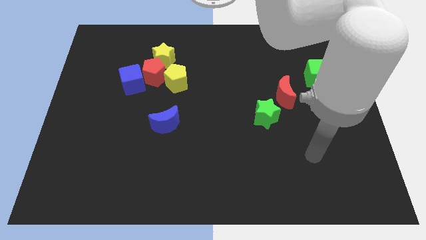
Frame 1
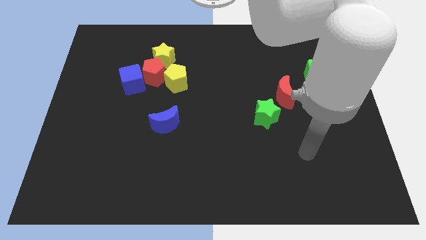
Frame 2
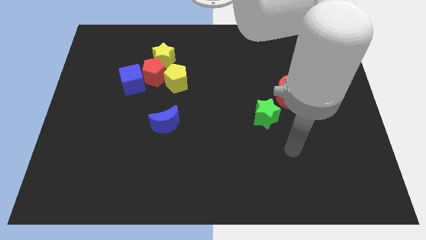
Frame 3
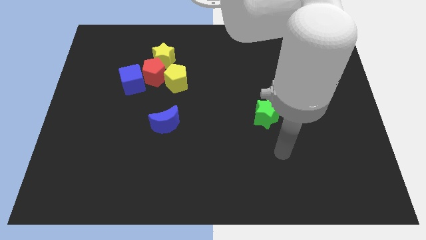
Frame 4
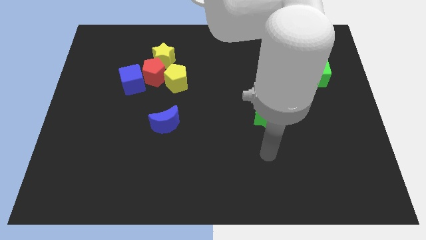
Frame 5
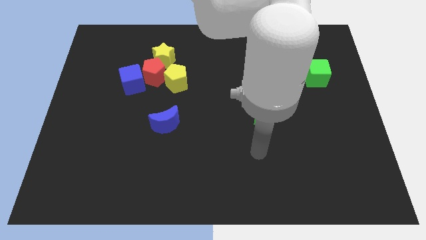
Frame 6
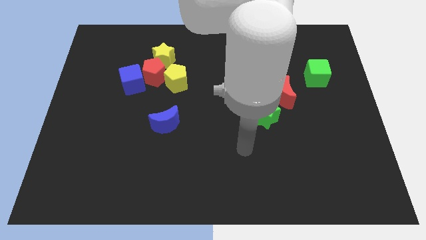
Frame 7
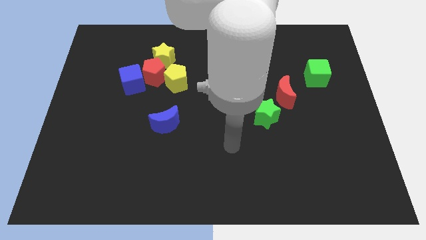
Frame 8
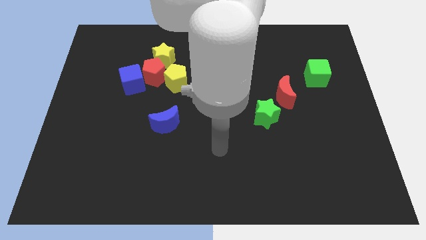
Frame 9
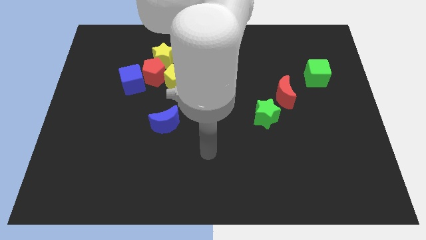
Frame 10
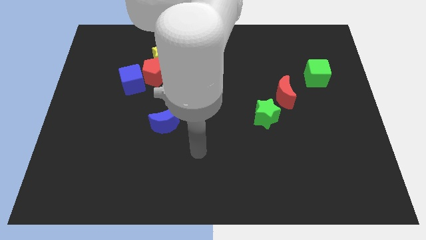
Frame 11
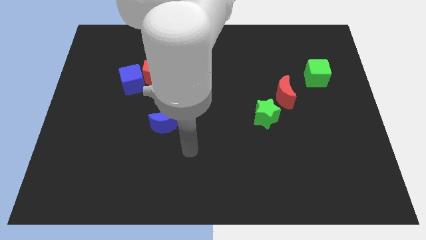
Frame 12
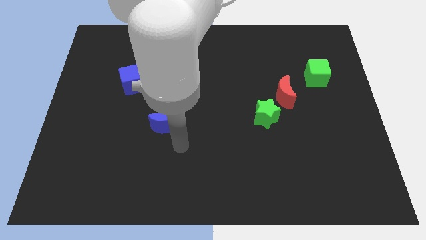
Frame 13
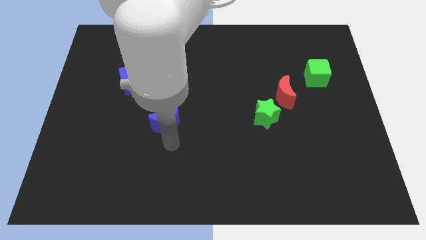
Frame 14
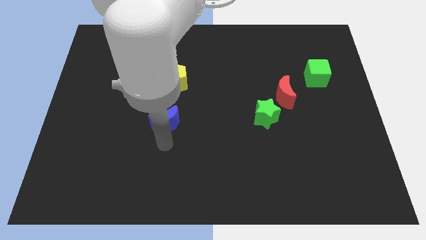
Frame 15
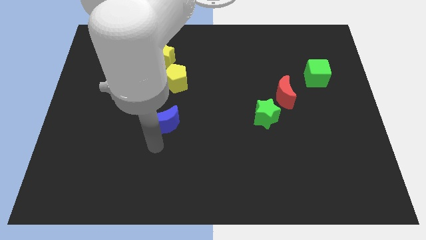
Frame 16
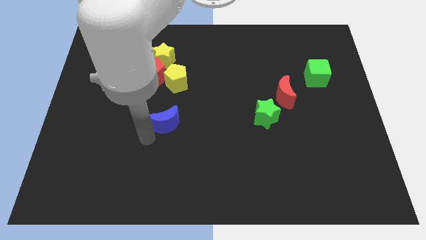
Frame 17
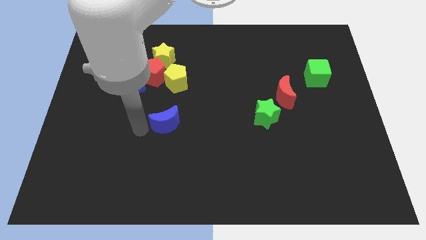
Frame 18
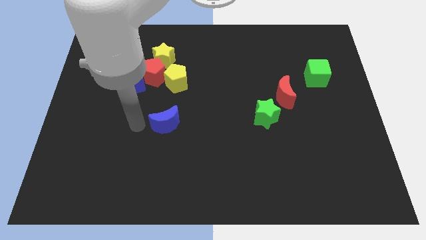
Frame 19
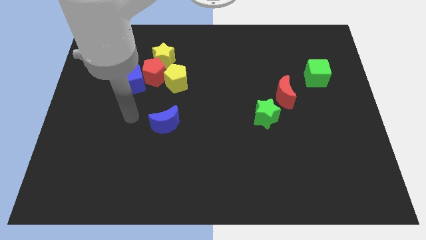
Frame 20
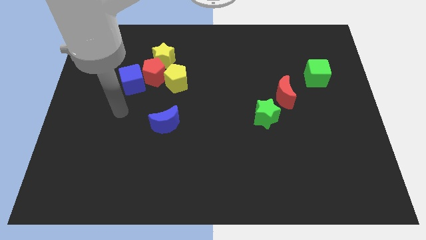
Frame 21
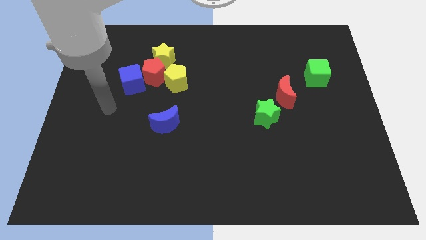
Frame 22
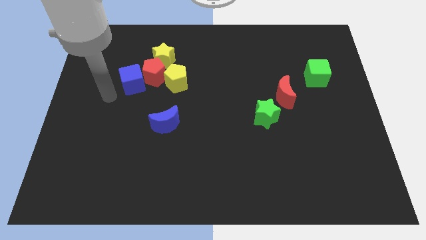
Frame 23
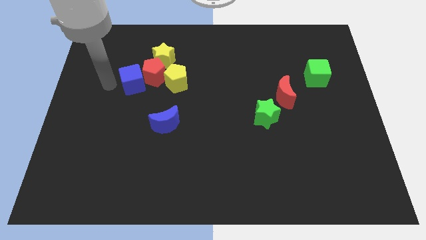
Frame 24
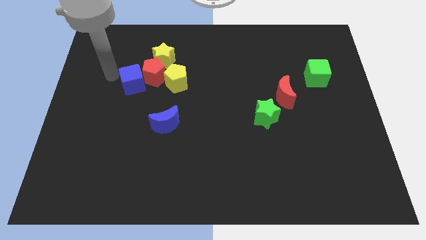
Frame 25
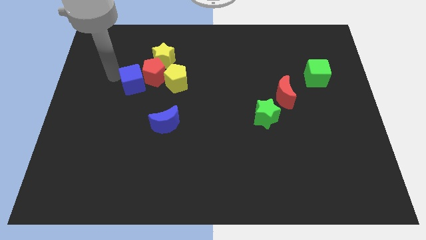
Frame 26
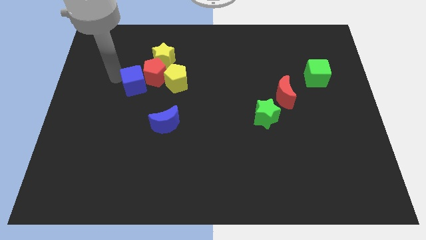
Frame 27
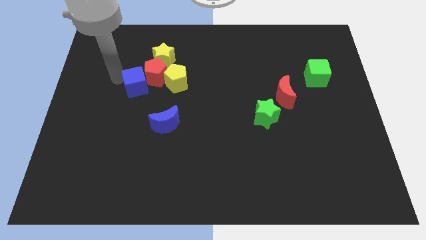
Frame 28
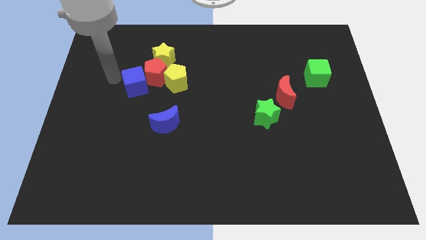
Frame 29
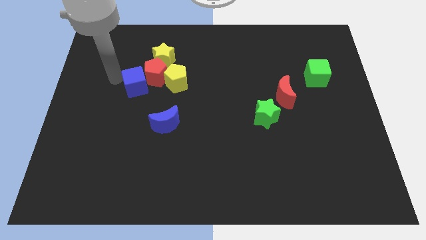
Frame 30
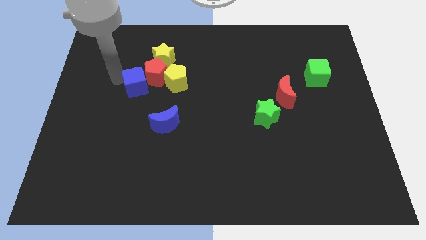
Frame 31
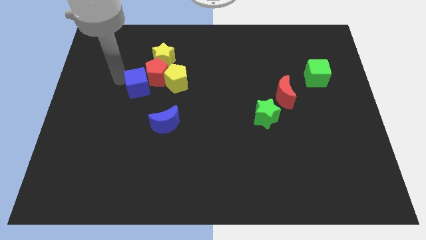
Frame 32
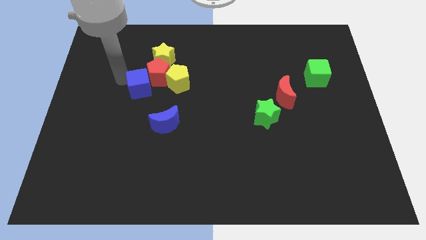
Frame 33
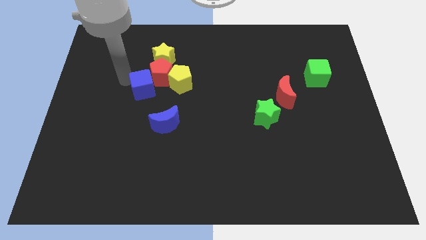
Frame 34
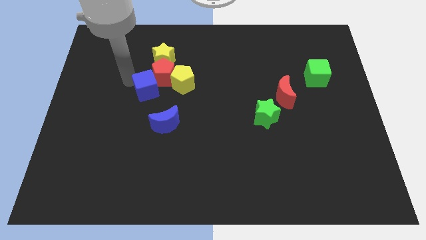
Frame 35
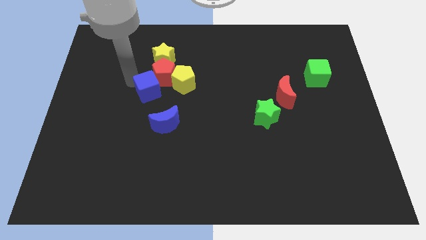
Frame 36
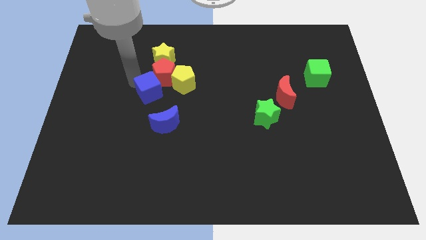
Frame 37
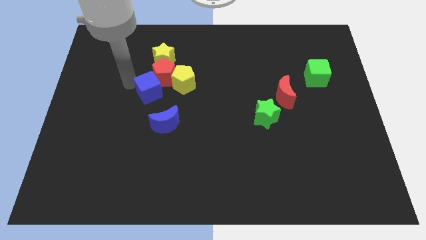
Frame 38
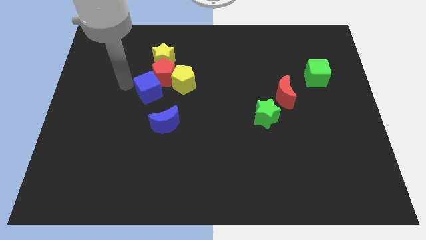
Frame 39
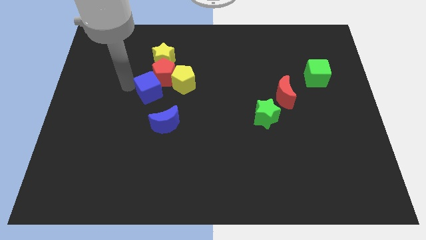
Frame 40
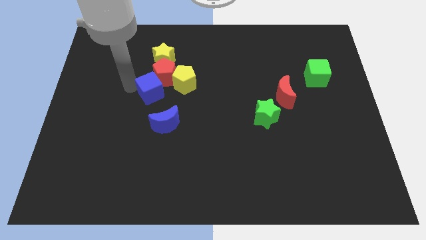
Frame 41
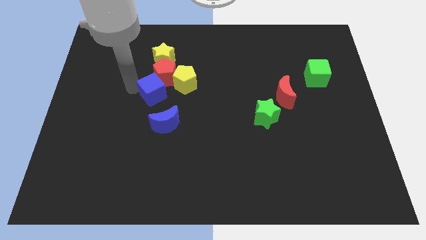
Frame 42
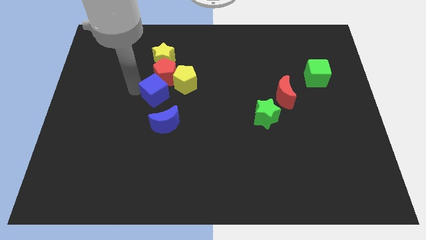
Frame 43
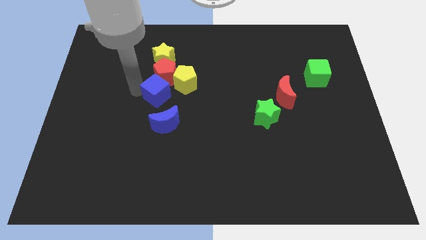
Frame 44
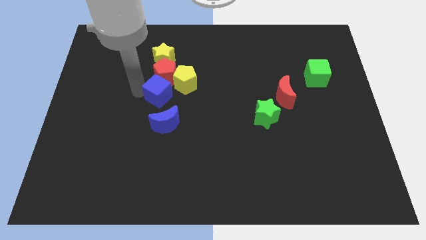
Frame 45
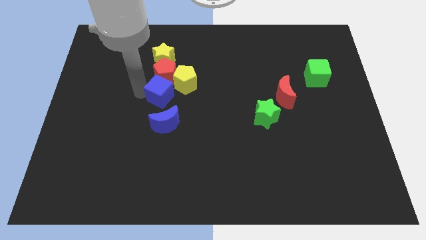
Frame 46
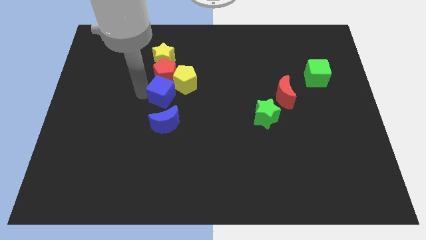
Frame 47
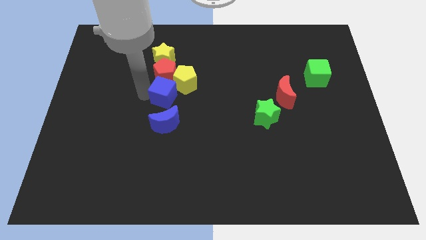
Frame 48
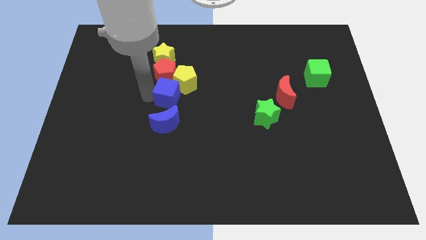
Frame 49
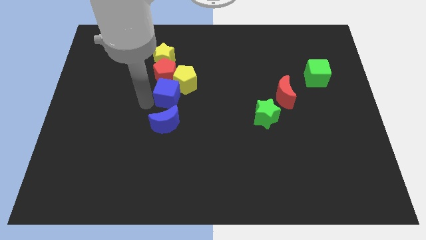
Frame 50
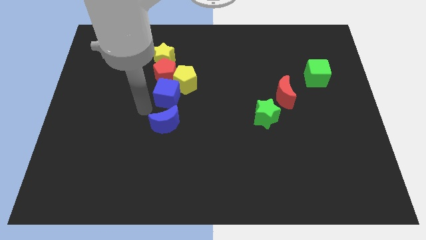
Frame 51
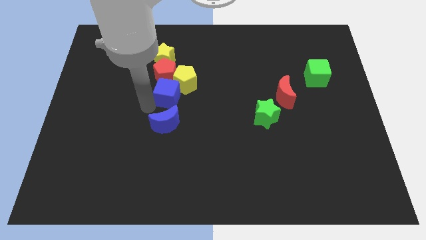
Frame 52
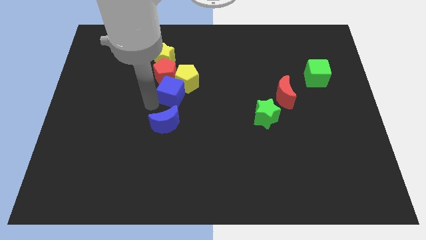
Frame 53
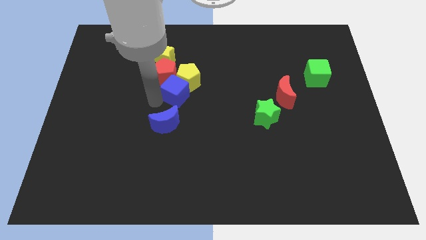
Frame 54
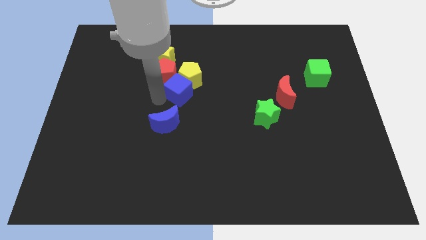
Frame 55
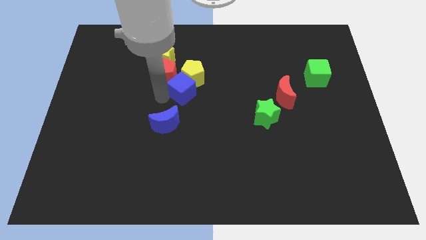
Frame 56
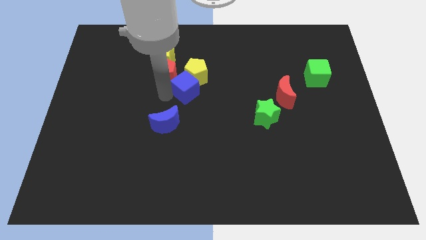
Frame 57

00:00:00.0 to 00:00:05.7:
slide the blue cube just right of the red pentagon
